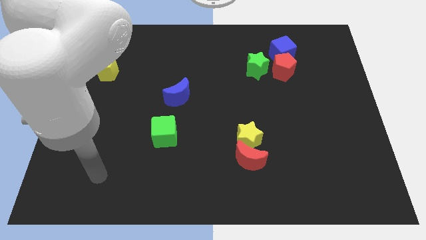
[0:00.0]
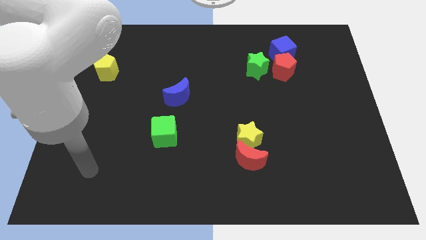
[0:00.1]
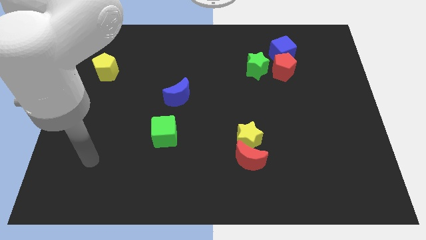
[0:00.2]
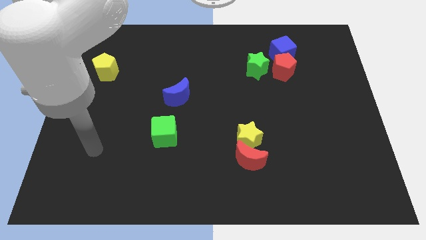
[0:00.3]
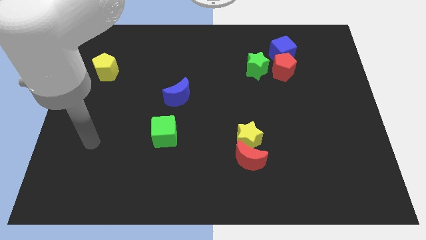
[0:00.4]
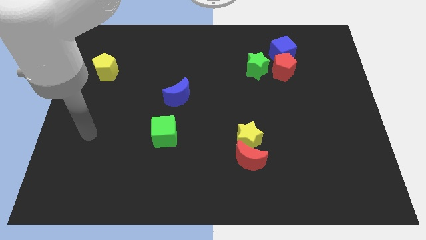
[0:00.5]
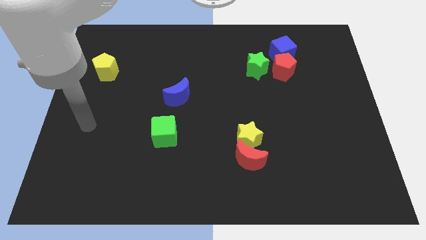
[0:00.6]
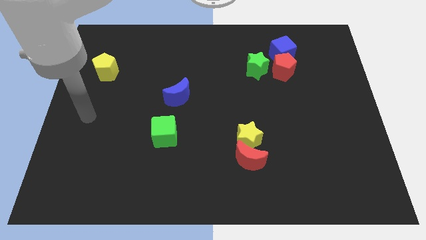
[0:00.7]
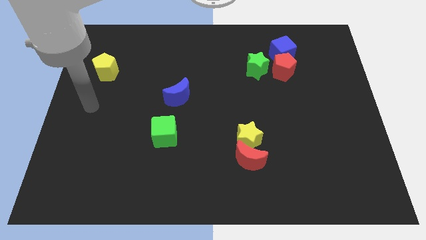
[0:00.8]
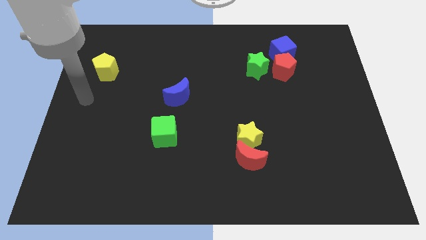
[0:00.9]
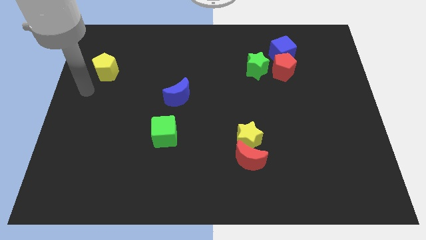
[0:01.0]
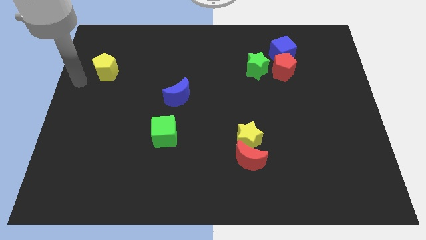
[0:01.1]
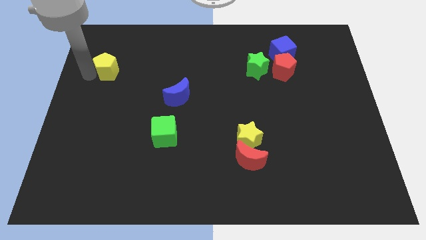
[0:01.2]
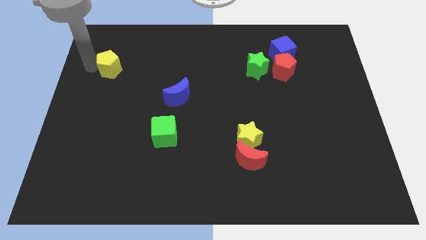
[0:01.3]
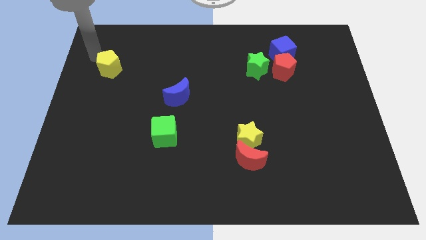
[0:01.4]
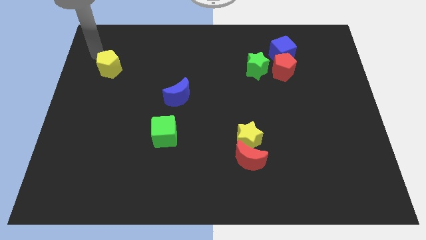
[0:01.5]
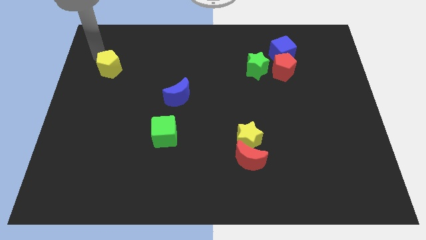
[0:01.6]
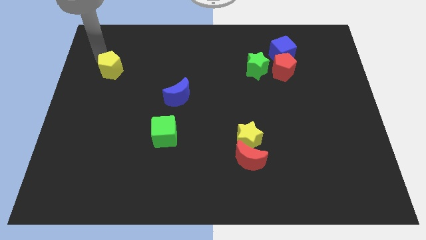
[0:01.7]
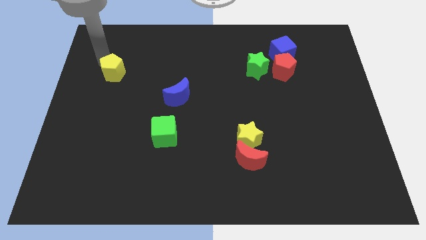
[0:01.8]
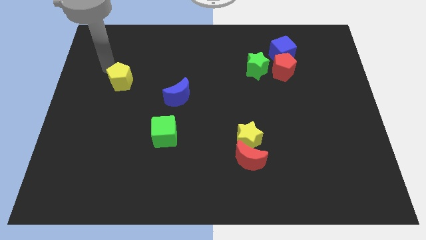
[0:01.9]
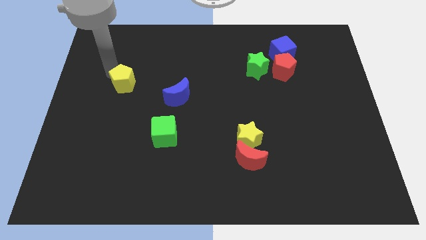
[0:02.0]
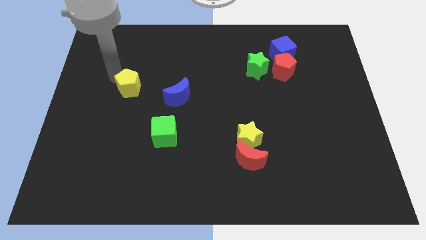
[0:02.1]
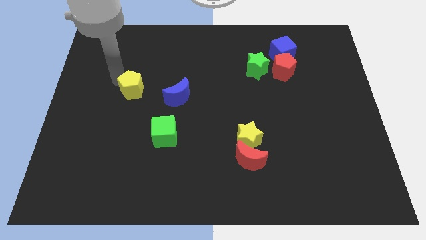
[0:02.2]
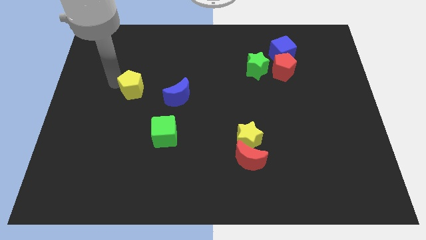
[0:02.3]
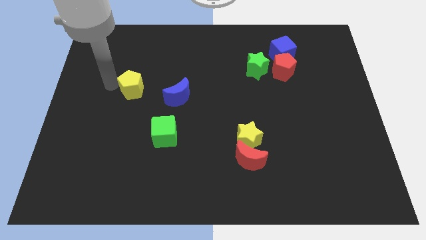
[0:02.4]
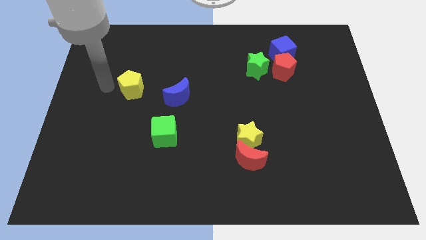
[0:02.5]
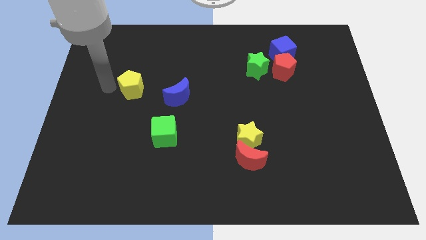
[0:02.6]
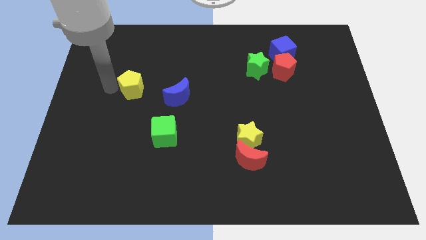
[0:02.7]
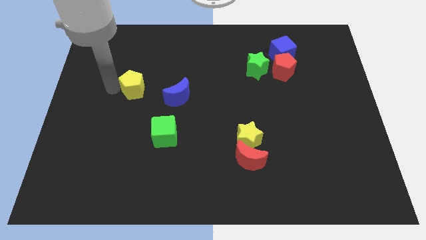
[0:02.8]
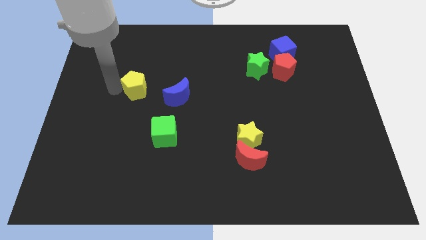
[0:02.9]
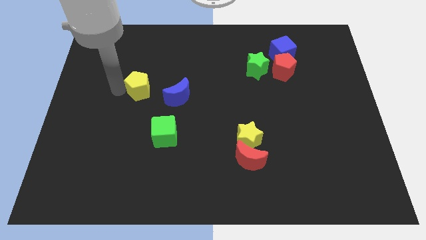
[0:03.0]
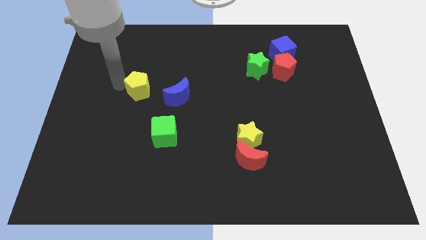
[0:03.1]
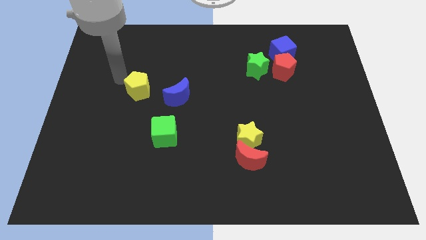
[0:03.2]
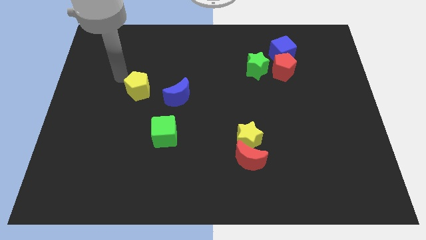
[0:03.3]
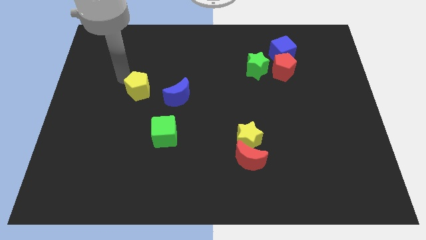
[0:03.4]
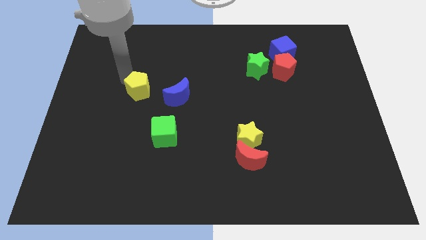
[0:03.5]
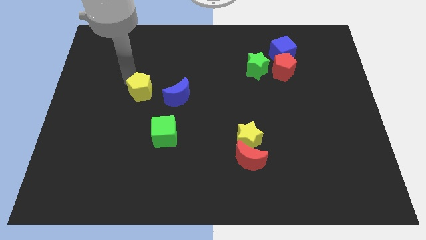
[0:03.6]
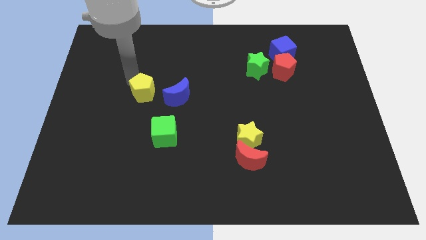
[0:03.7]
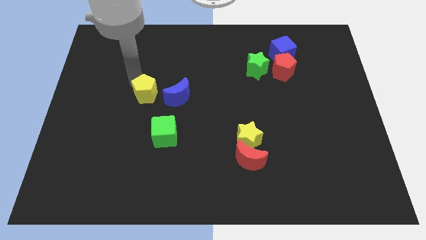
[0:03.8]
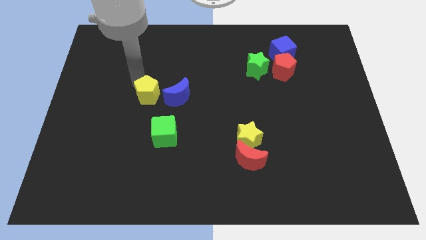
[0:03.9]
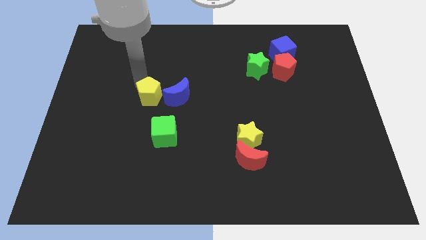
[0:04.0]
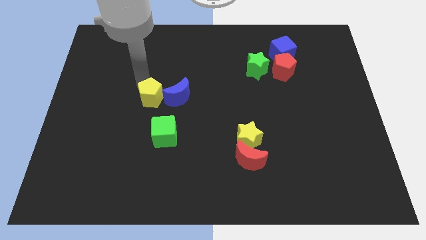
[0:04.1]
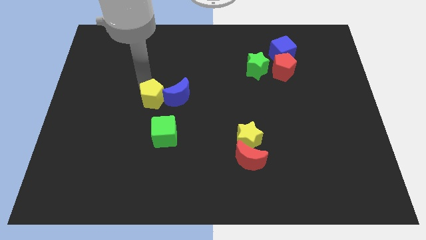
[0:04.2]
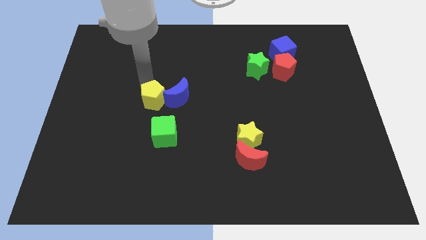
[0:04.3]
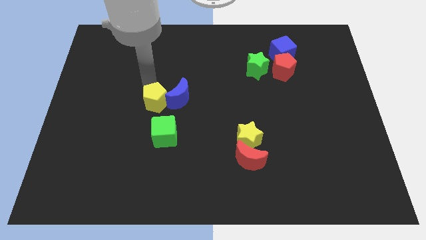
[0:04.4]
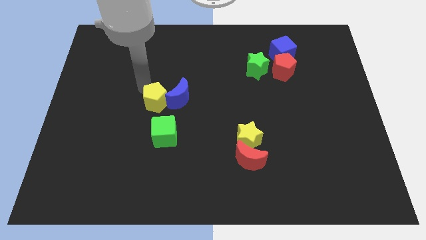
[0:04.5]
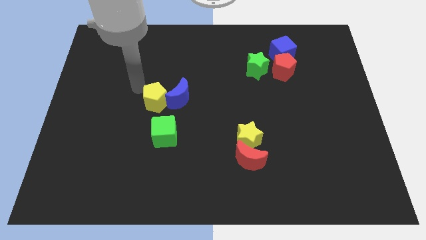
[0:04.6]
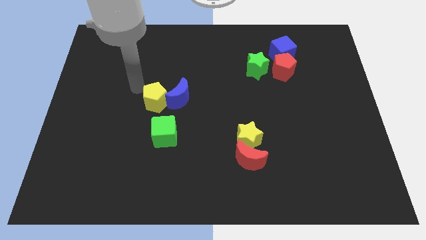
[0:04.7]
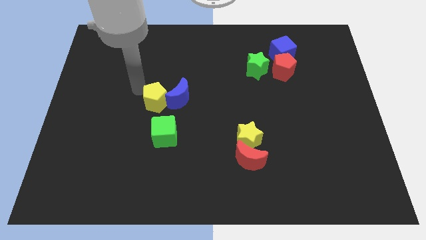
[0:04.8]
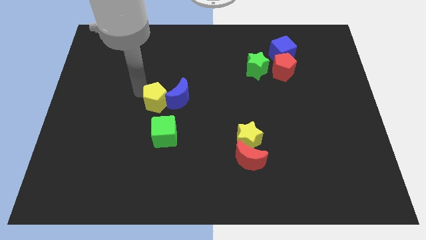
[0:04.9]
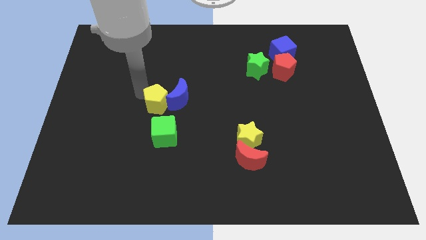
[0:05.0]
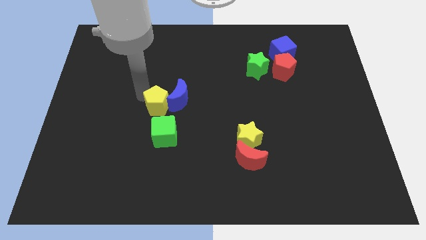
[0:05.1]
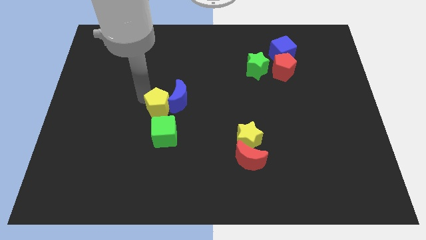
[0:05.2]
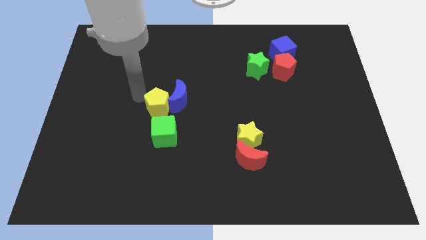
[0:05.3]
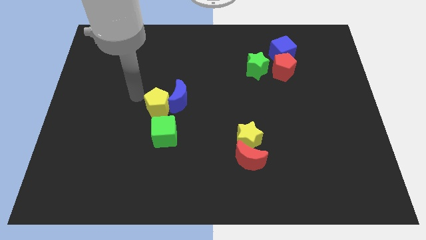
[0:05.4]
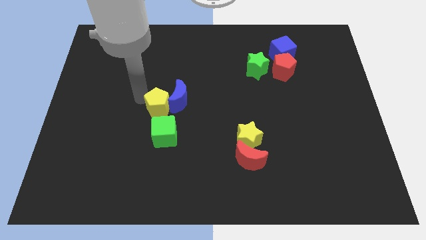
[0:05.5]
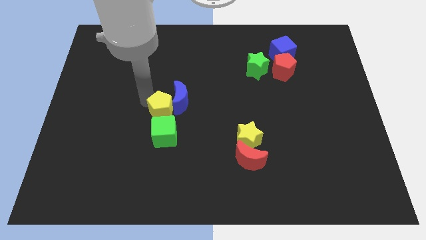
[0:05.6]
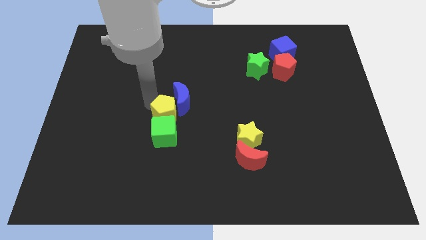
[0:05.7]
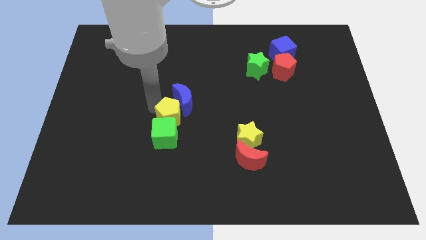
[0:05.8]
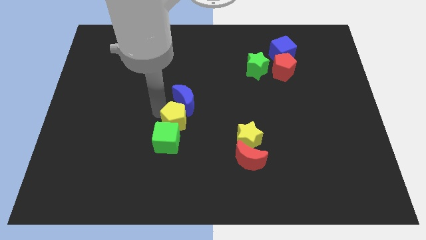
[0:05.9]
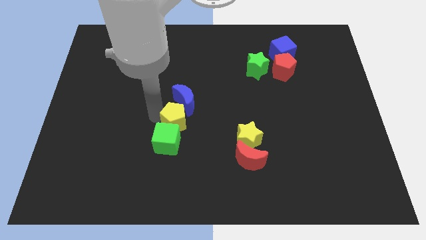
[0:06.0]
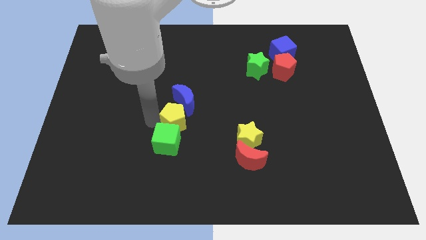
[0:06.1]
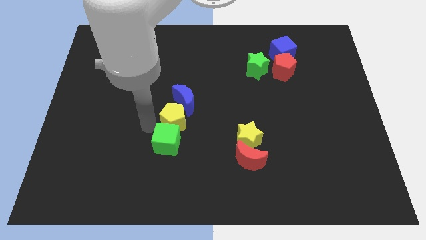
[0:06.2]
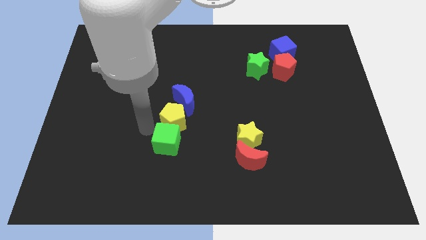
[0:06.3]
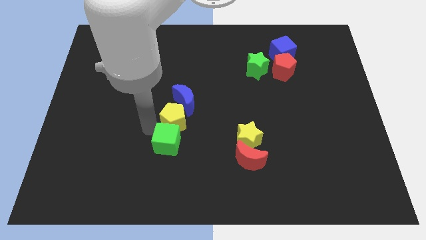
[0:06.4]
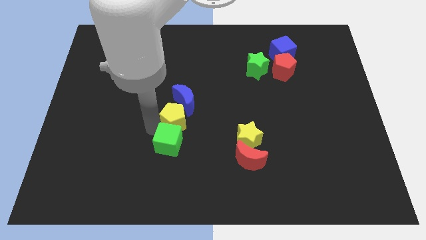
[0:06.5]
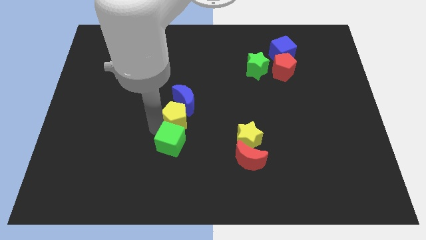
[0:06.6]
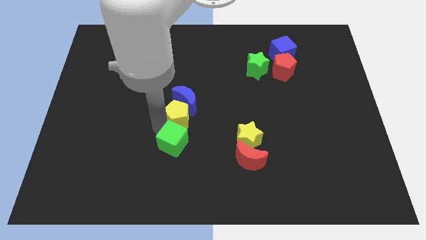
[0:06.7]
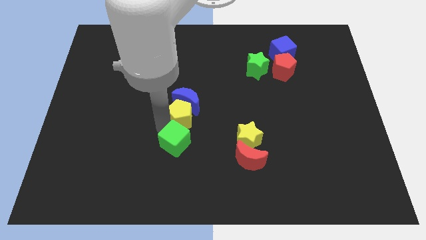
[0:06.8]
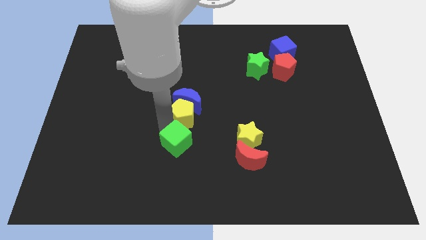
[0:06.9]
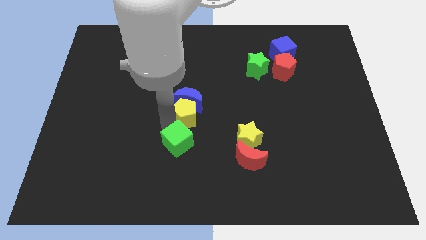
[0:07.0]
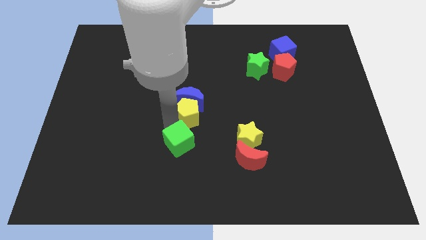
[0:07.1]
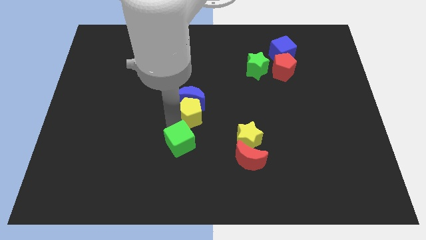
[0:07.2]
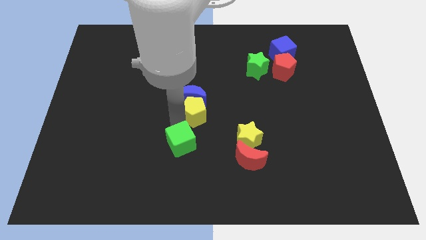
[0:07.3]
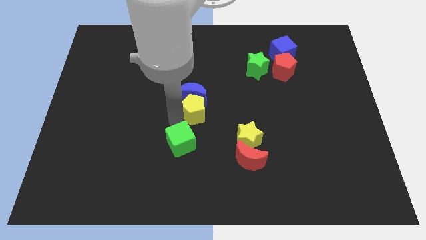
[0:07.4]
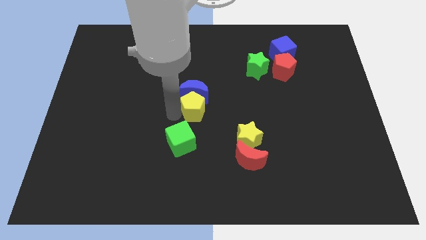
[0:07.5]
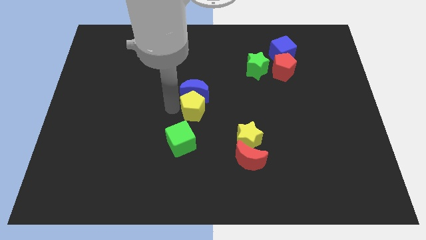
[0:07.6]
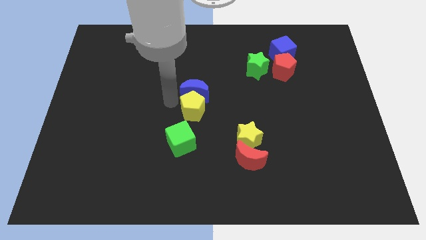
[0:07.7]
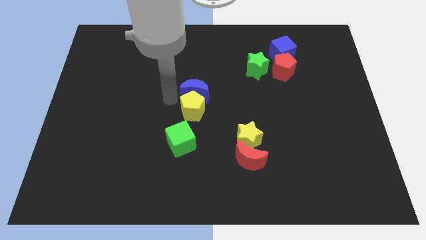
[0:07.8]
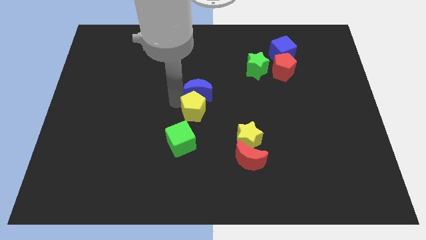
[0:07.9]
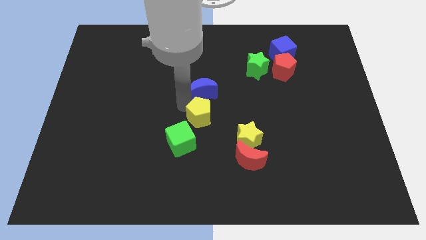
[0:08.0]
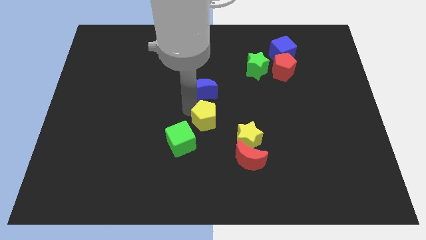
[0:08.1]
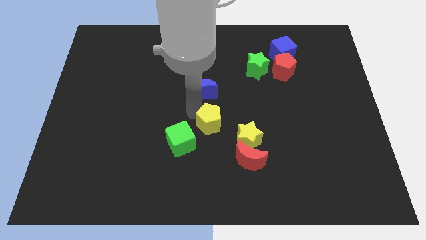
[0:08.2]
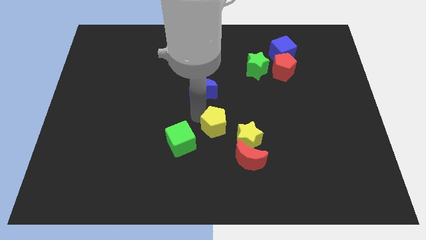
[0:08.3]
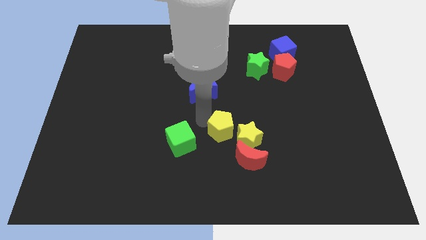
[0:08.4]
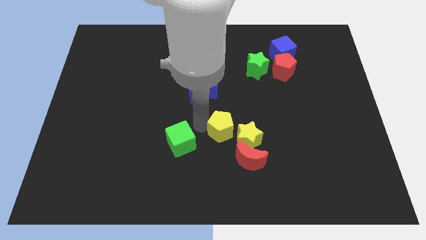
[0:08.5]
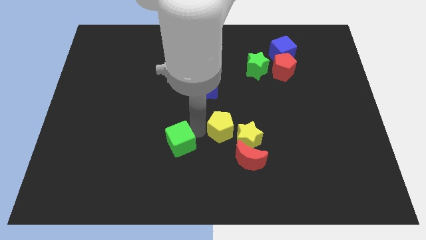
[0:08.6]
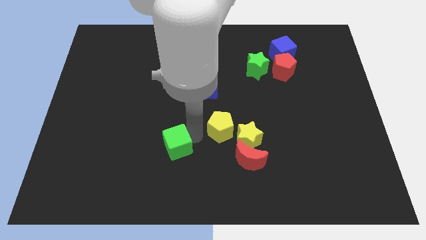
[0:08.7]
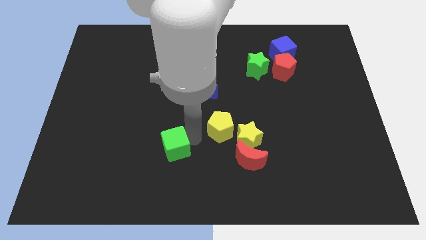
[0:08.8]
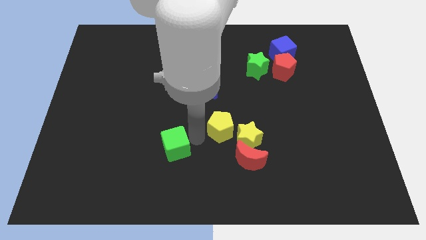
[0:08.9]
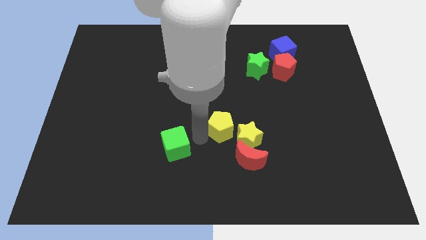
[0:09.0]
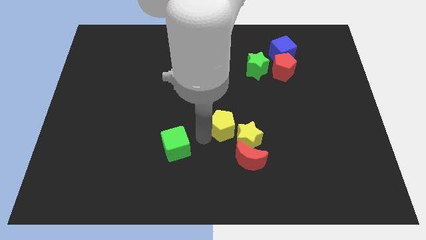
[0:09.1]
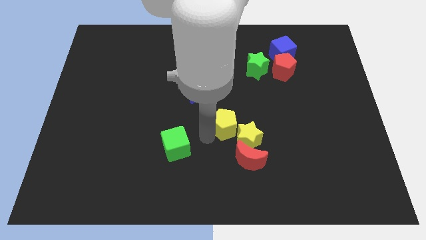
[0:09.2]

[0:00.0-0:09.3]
slide the yellow pentagon above the red moon
